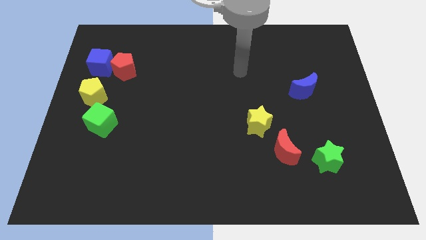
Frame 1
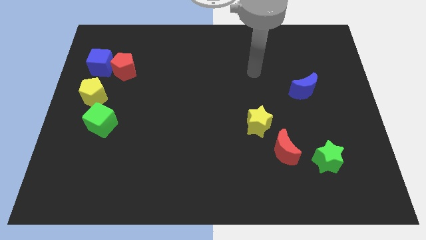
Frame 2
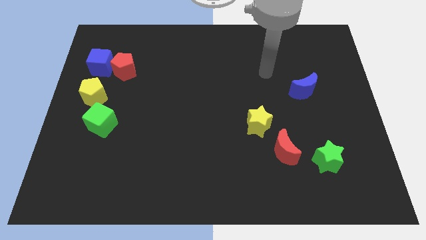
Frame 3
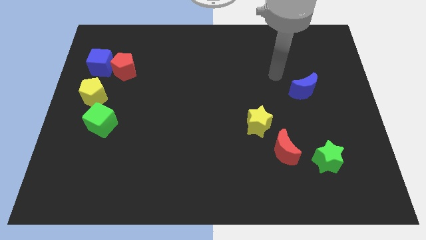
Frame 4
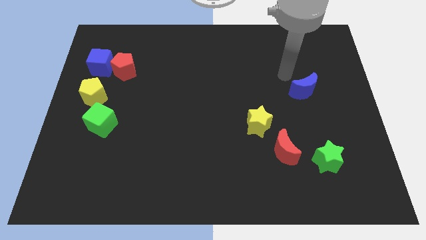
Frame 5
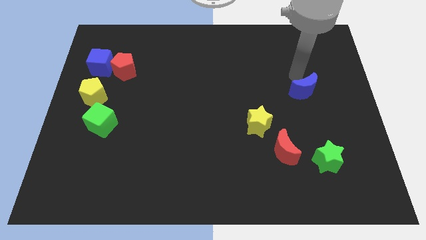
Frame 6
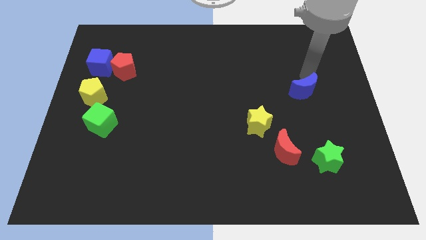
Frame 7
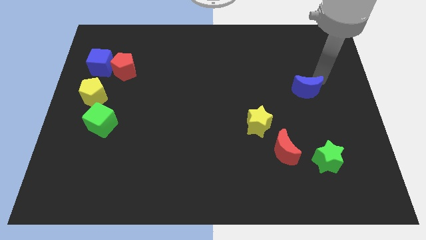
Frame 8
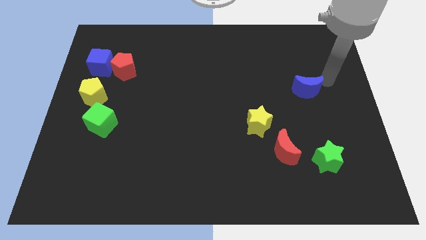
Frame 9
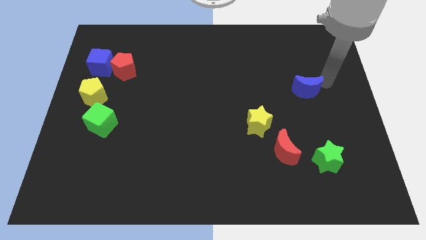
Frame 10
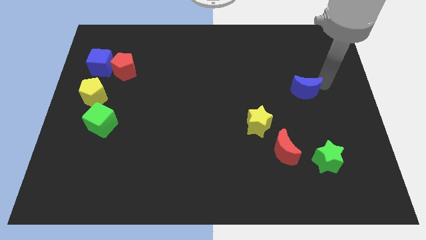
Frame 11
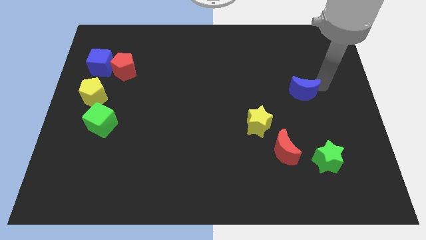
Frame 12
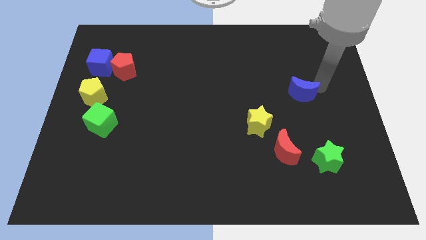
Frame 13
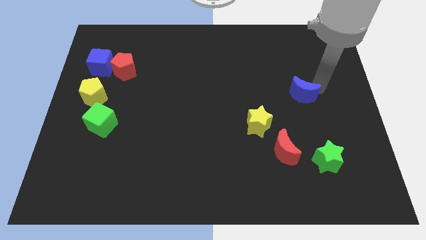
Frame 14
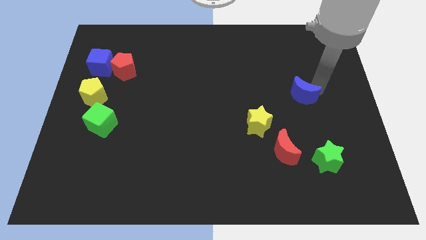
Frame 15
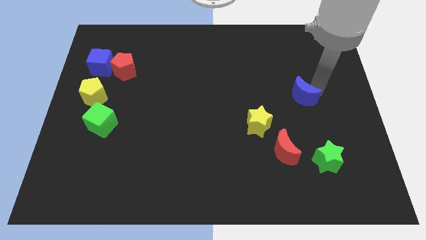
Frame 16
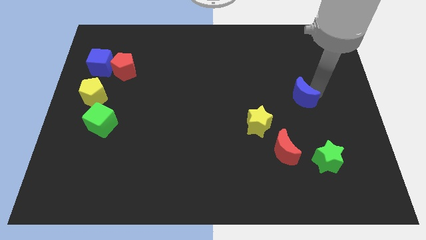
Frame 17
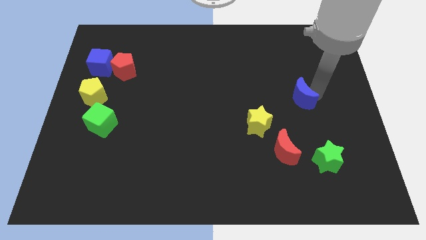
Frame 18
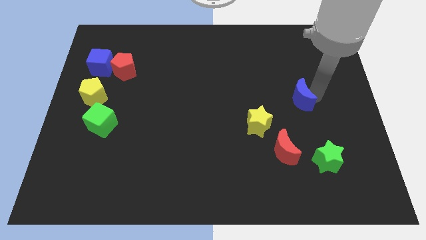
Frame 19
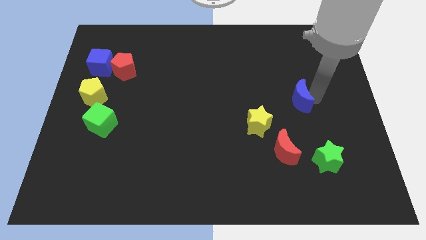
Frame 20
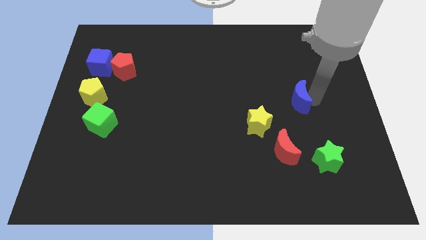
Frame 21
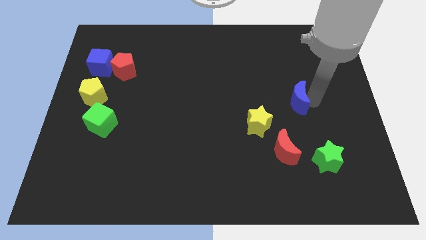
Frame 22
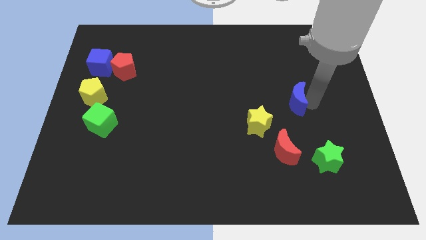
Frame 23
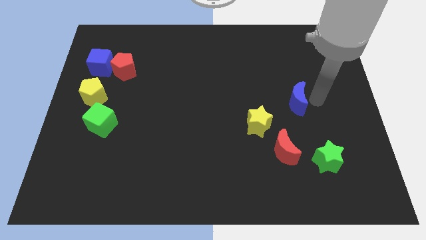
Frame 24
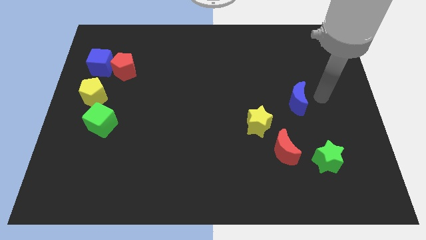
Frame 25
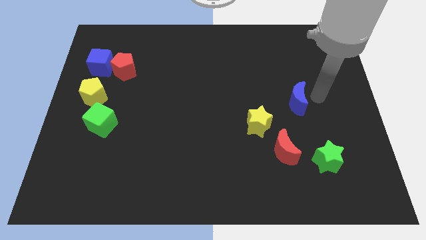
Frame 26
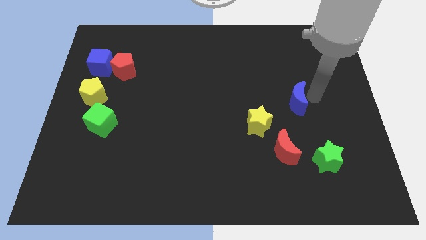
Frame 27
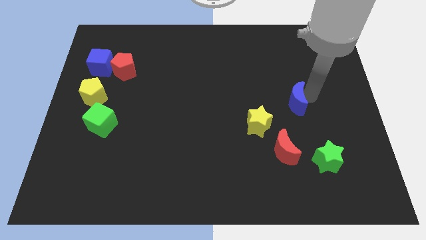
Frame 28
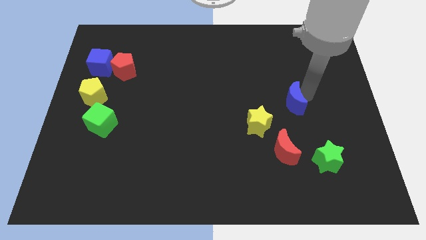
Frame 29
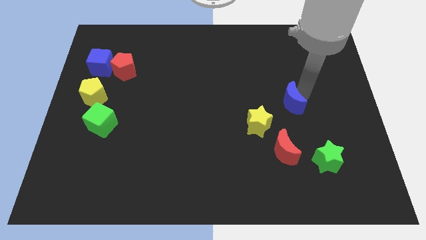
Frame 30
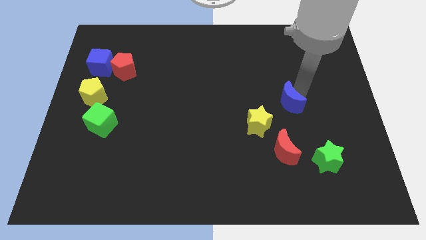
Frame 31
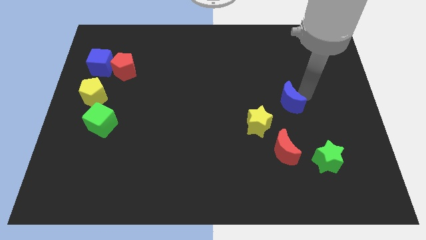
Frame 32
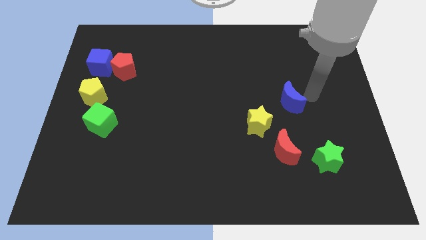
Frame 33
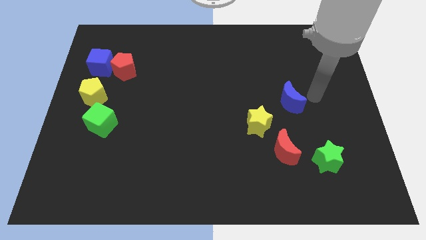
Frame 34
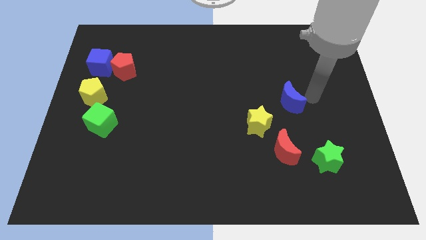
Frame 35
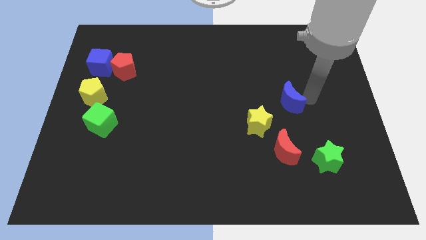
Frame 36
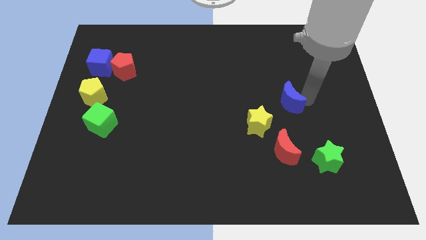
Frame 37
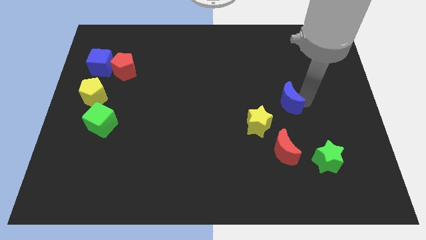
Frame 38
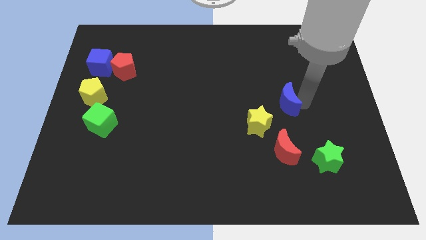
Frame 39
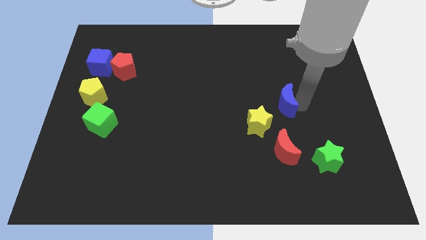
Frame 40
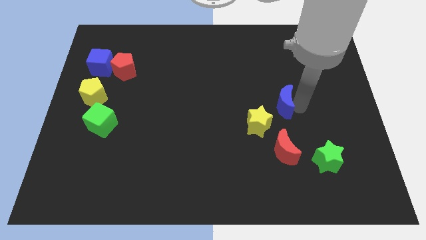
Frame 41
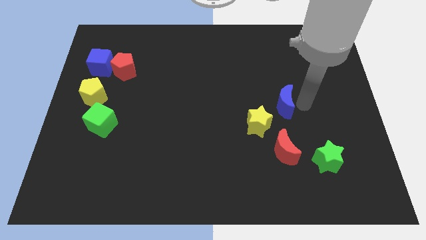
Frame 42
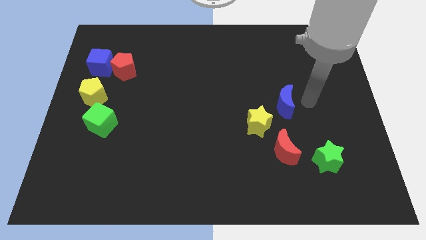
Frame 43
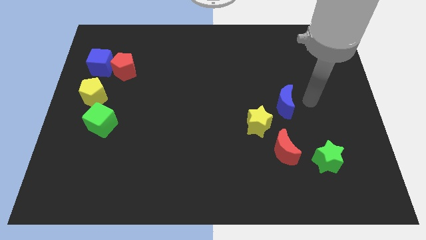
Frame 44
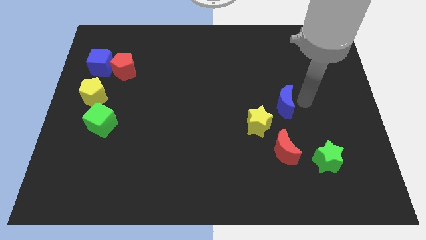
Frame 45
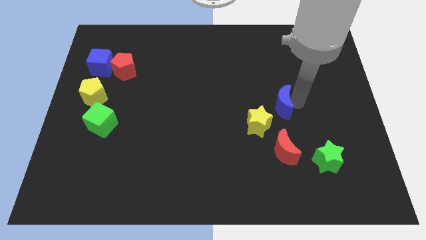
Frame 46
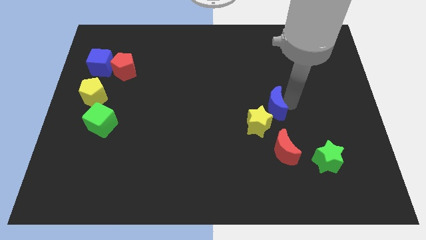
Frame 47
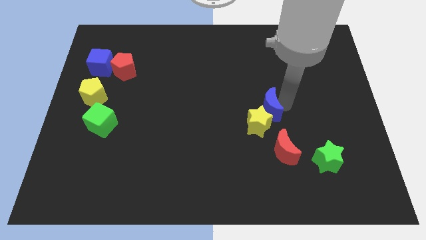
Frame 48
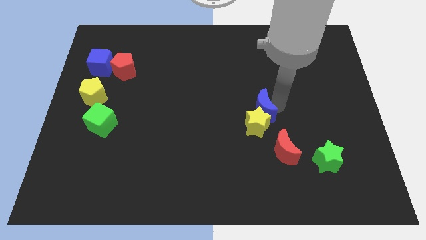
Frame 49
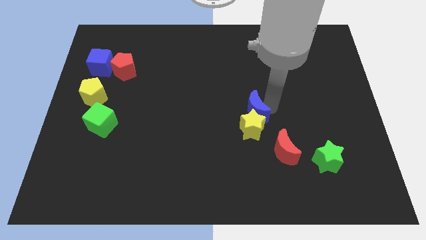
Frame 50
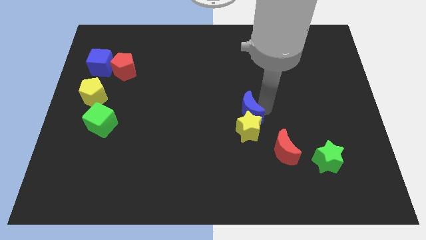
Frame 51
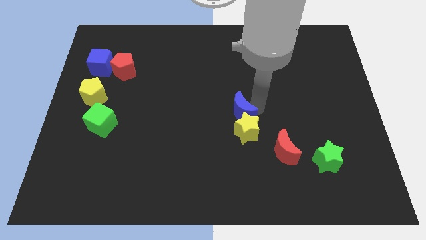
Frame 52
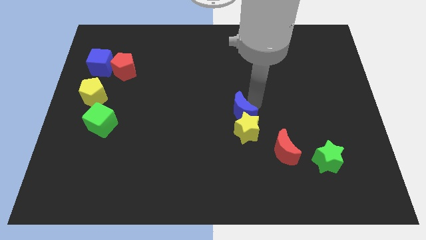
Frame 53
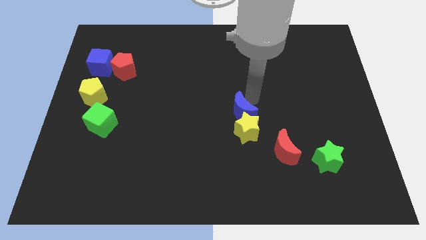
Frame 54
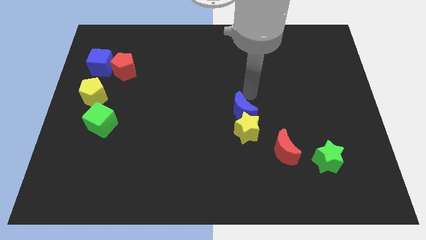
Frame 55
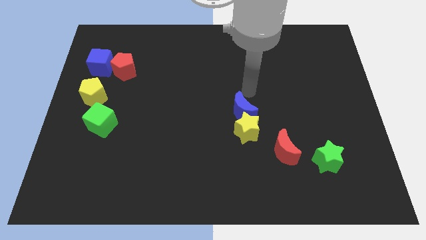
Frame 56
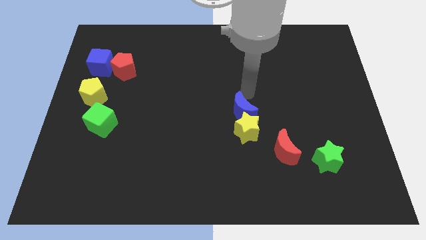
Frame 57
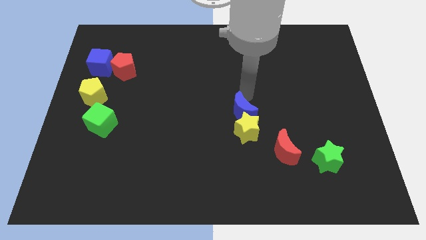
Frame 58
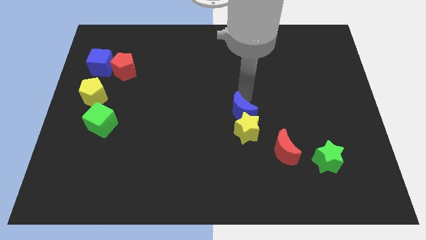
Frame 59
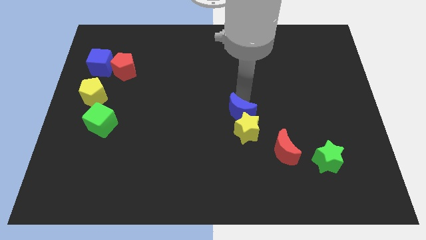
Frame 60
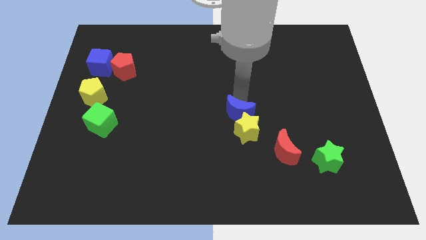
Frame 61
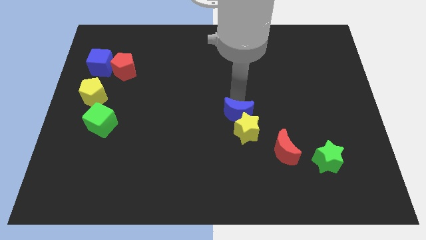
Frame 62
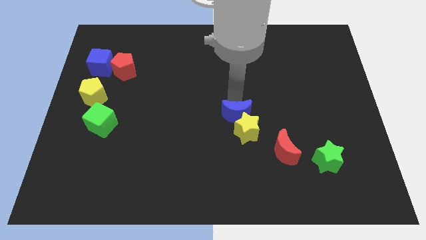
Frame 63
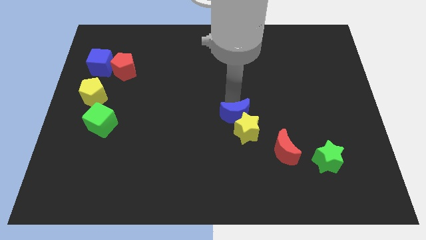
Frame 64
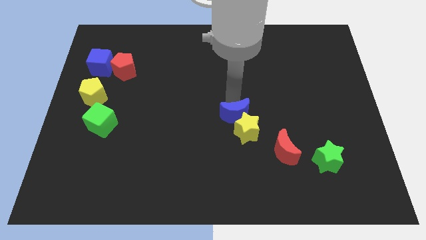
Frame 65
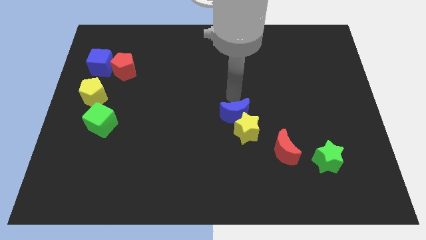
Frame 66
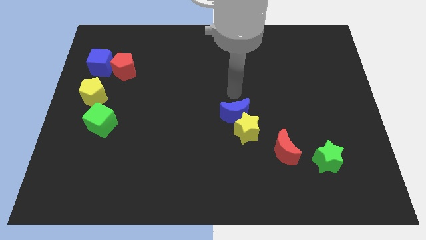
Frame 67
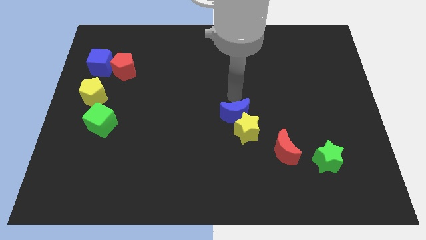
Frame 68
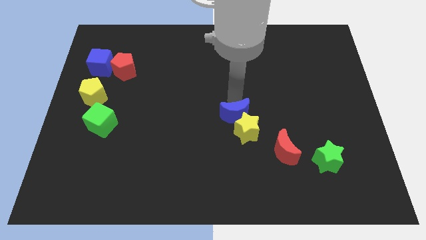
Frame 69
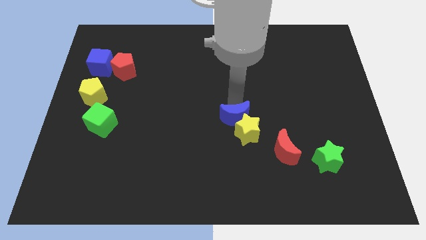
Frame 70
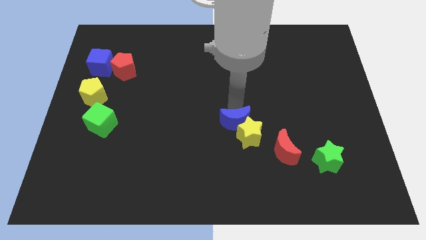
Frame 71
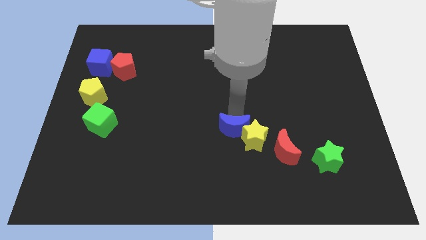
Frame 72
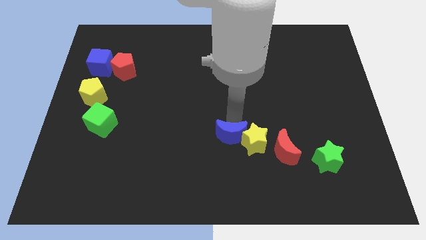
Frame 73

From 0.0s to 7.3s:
push the blue moon just left of the red moon
